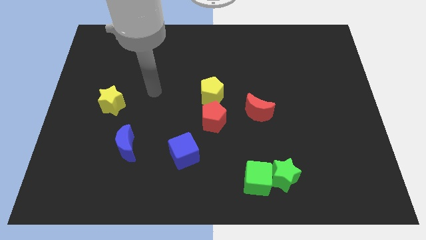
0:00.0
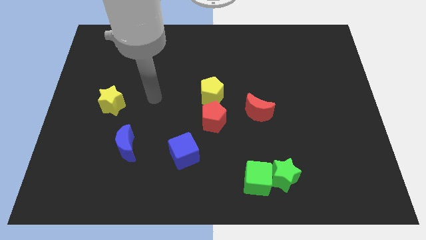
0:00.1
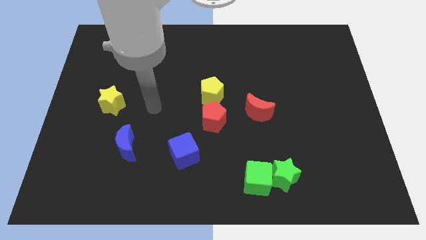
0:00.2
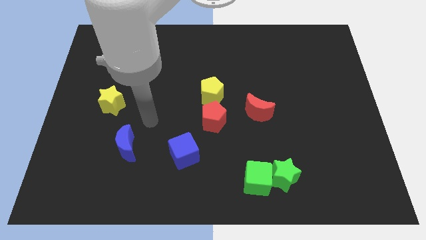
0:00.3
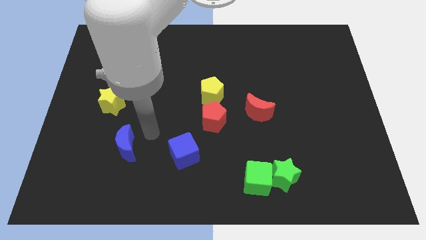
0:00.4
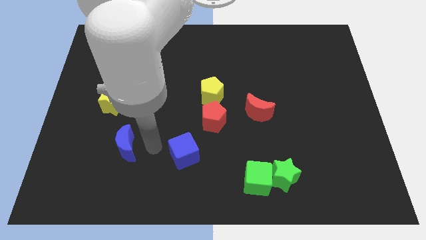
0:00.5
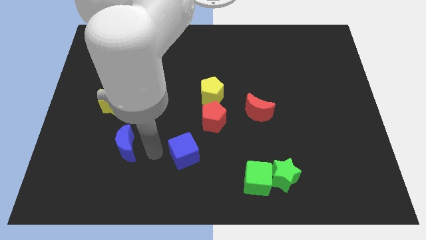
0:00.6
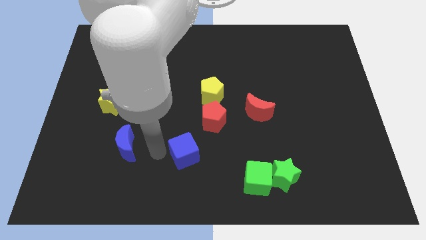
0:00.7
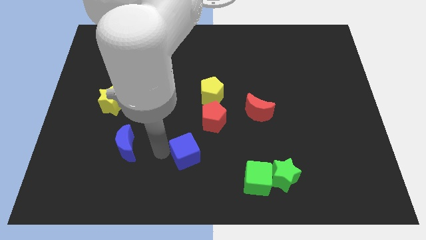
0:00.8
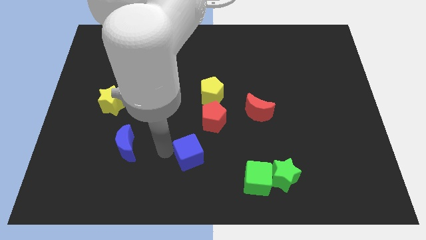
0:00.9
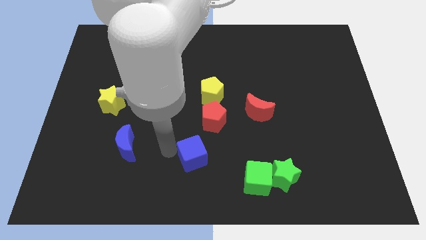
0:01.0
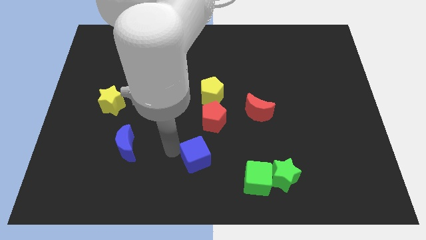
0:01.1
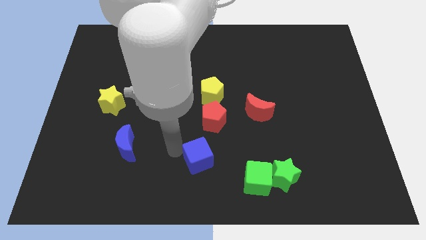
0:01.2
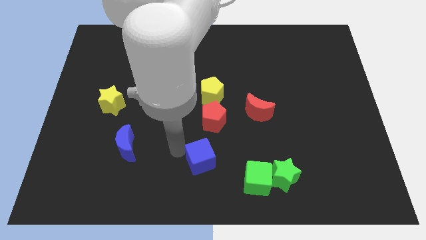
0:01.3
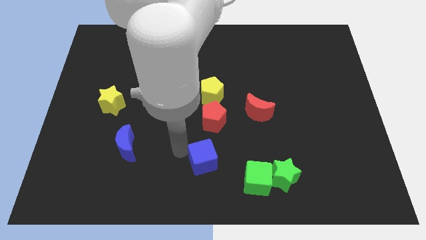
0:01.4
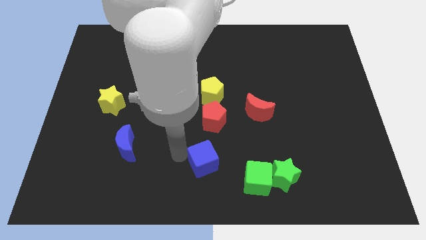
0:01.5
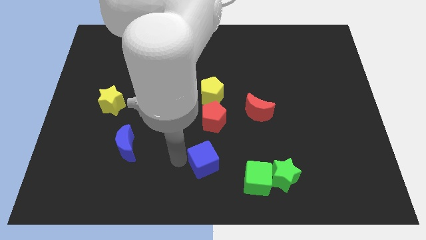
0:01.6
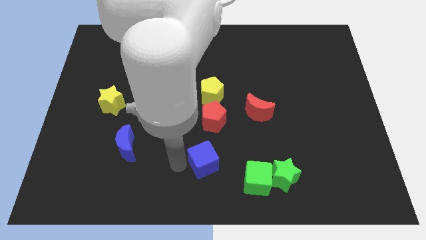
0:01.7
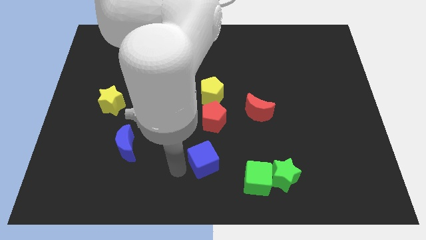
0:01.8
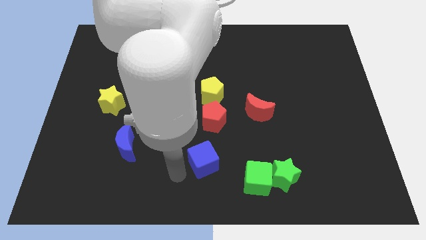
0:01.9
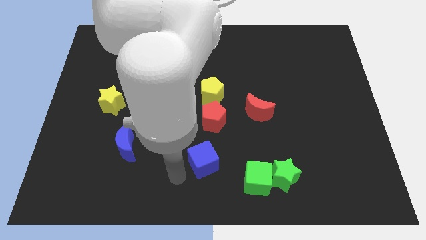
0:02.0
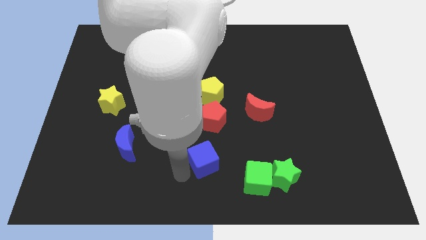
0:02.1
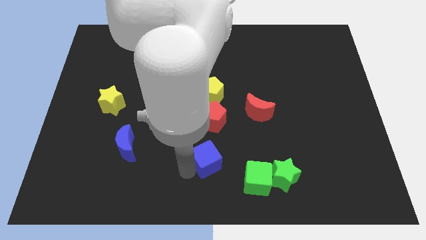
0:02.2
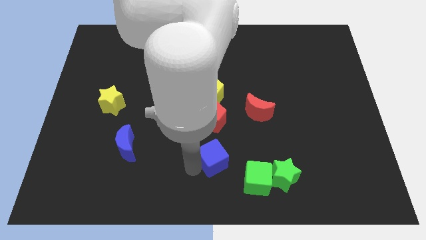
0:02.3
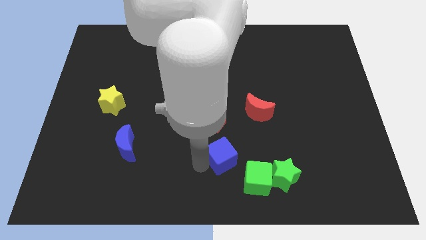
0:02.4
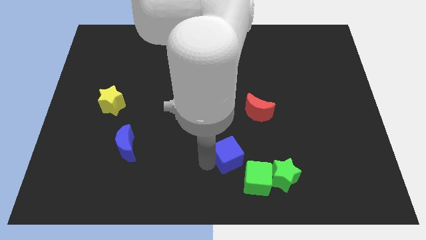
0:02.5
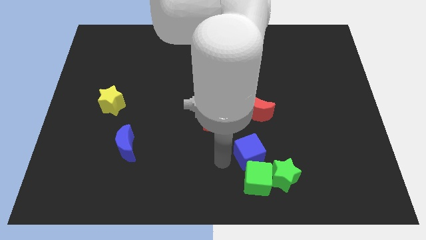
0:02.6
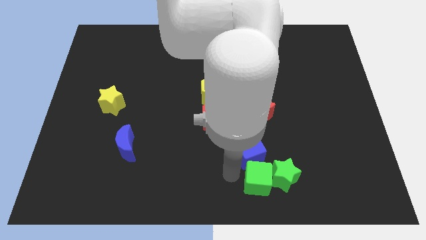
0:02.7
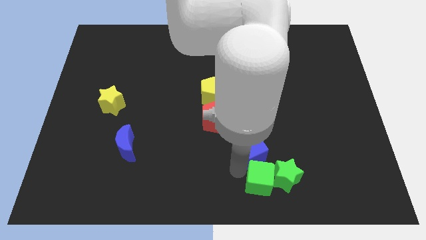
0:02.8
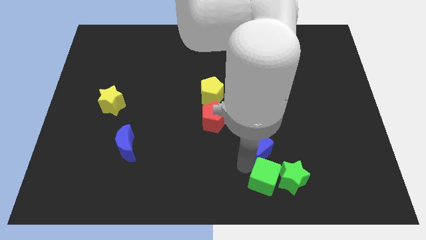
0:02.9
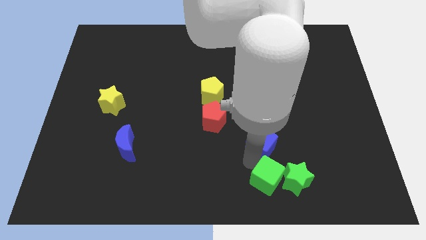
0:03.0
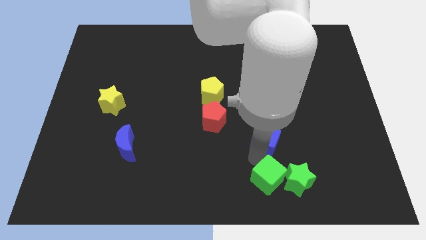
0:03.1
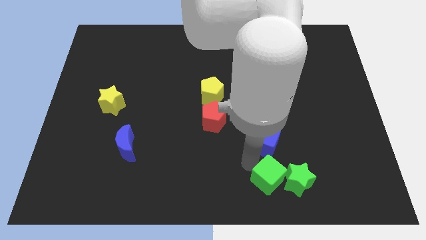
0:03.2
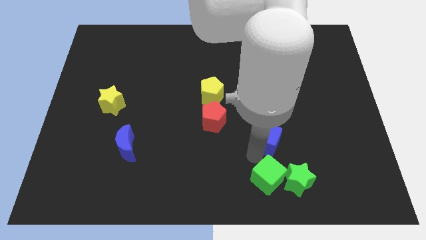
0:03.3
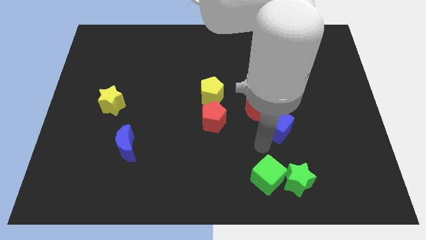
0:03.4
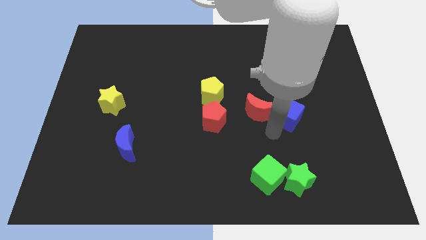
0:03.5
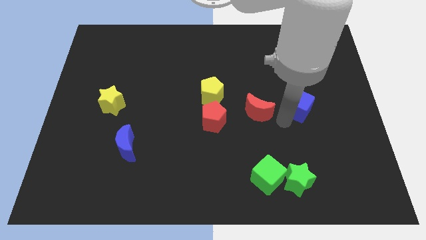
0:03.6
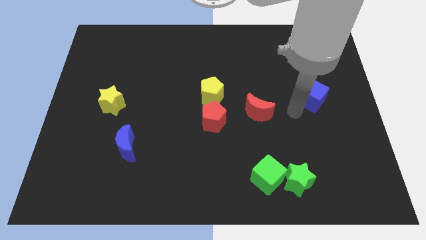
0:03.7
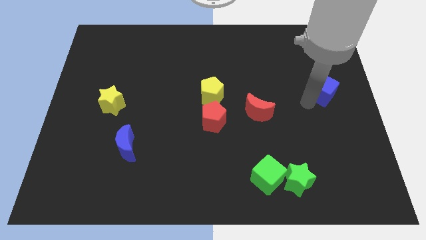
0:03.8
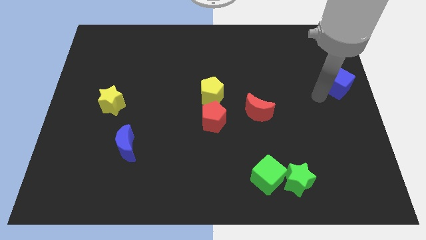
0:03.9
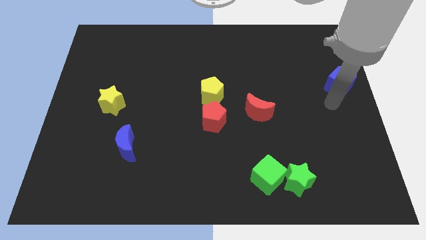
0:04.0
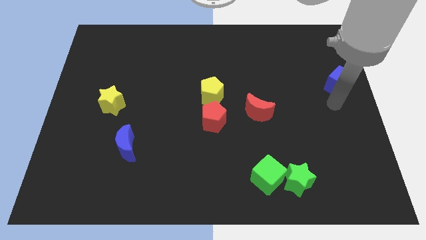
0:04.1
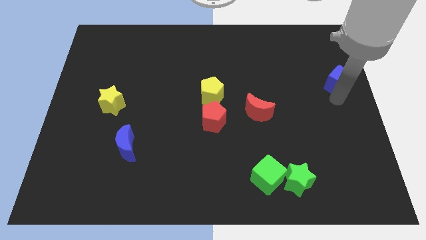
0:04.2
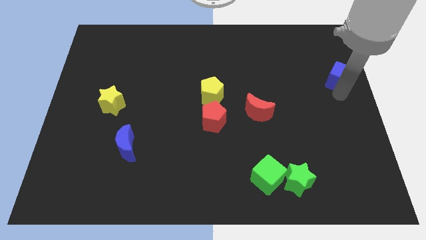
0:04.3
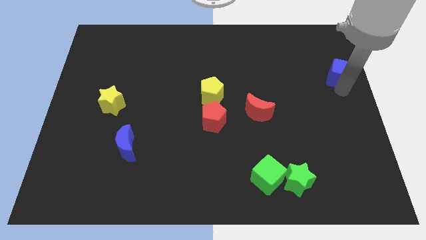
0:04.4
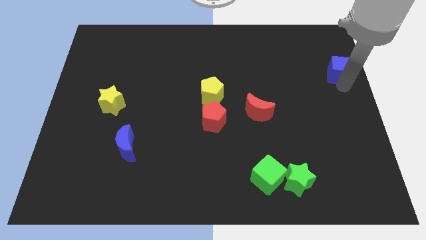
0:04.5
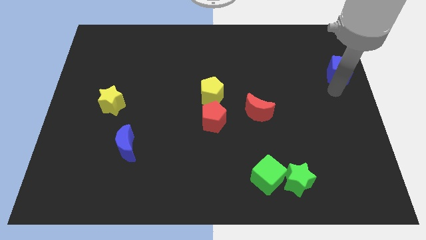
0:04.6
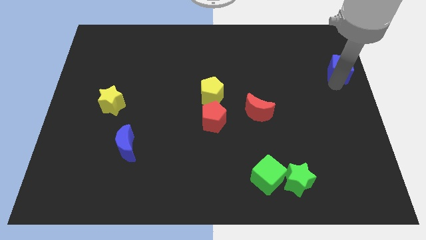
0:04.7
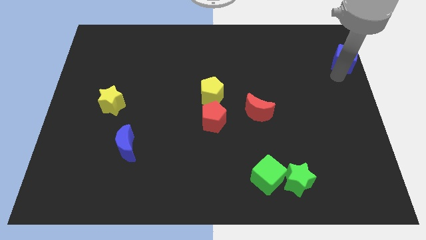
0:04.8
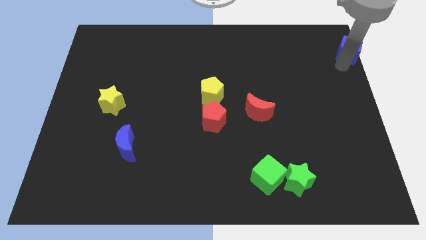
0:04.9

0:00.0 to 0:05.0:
push the blue cube to the top right corner

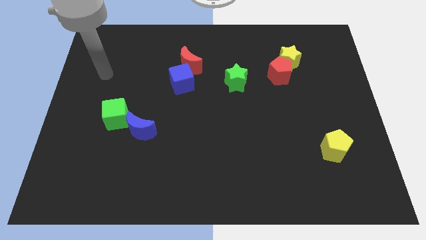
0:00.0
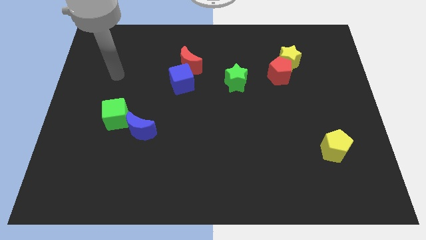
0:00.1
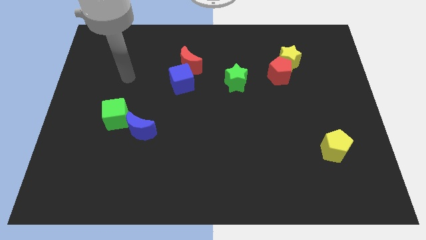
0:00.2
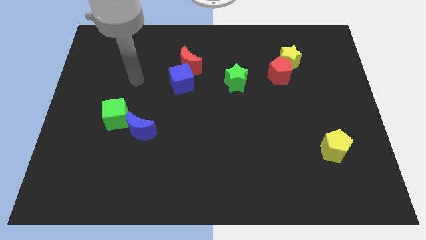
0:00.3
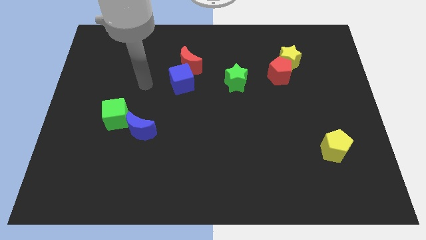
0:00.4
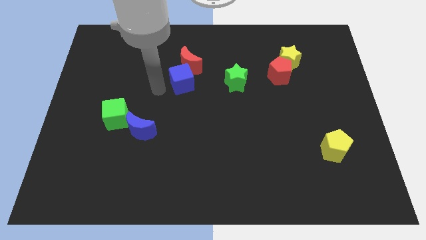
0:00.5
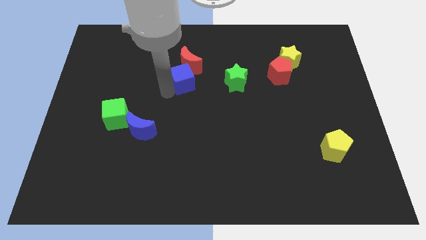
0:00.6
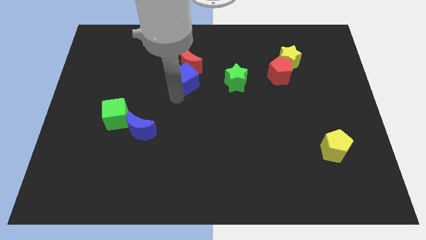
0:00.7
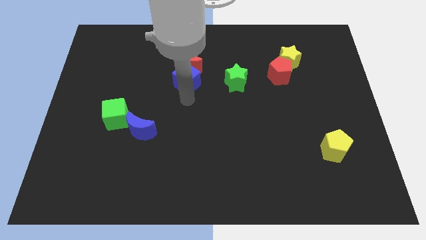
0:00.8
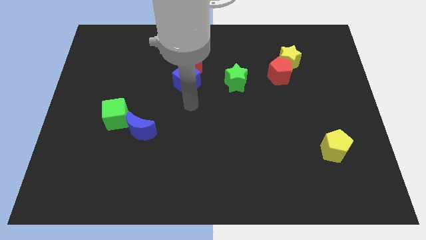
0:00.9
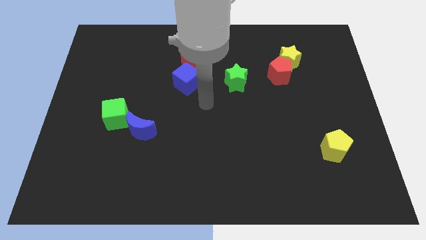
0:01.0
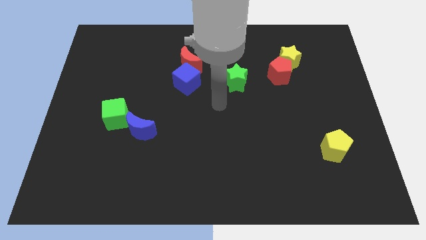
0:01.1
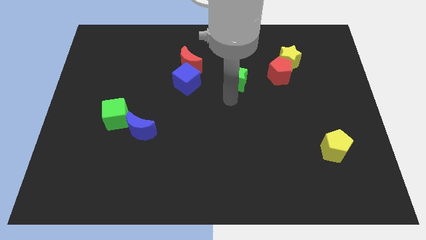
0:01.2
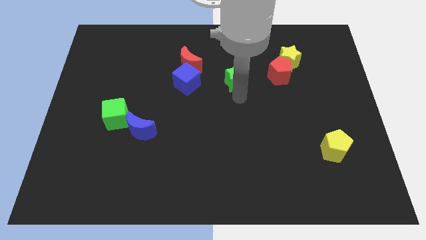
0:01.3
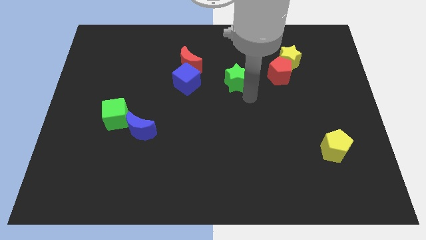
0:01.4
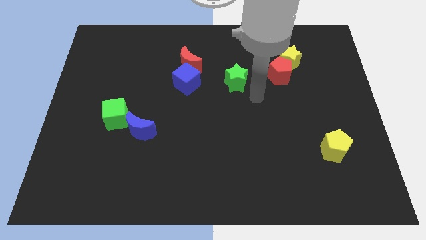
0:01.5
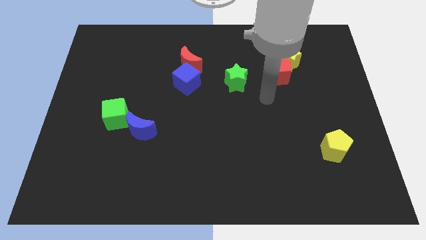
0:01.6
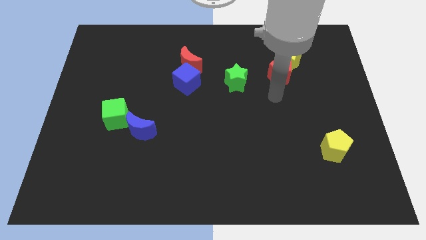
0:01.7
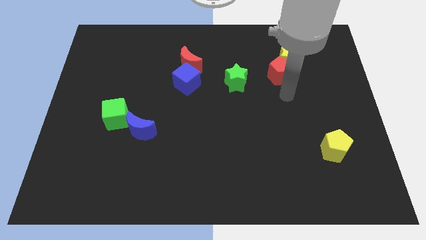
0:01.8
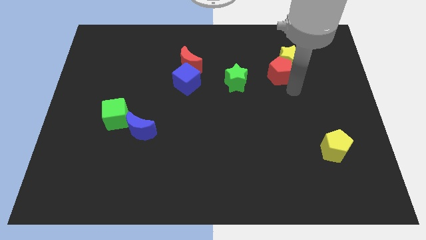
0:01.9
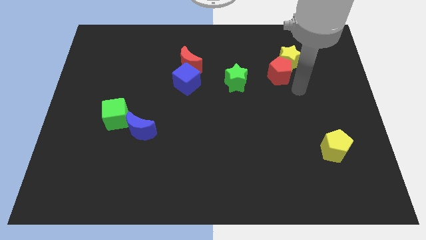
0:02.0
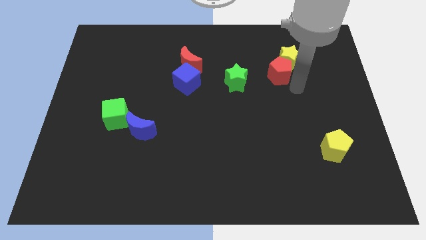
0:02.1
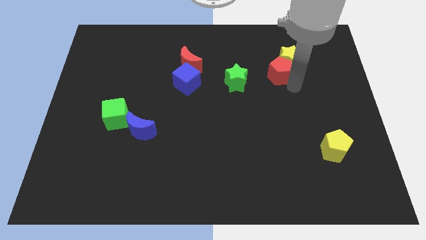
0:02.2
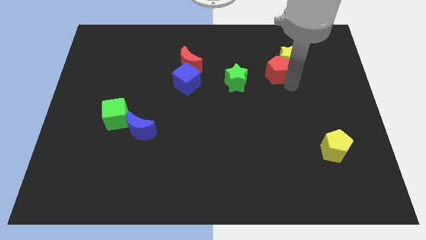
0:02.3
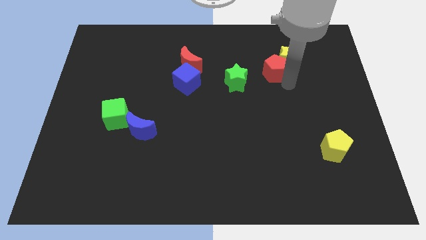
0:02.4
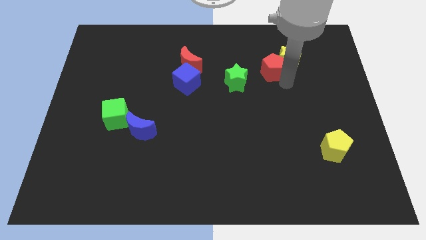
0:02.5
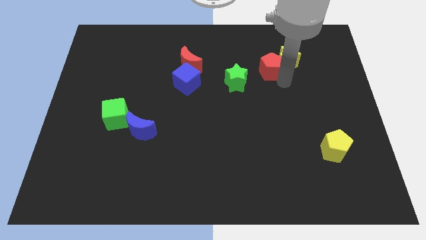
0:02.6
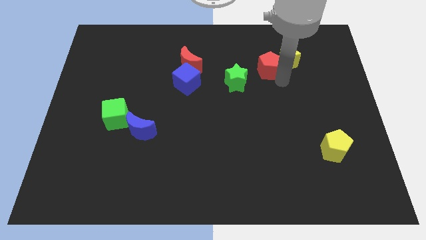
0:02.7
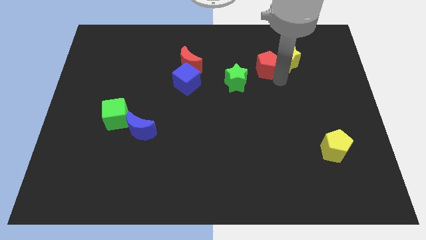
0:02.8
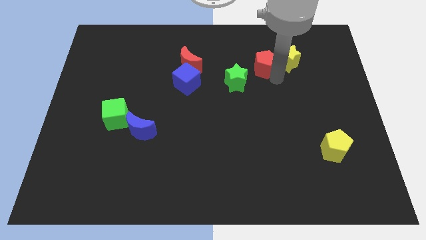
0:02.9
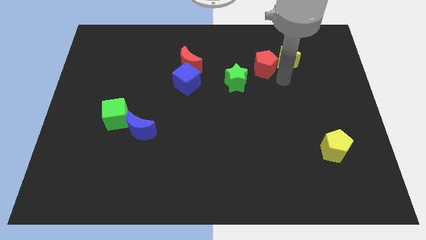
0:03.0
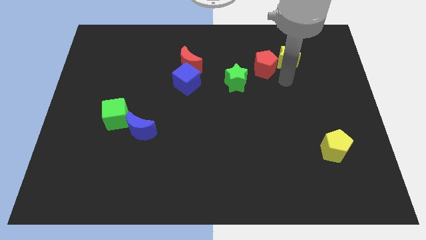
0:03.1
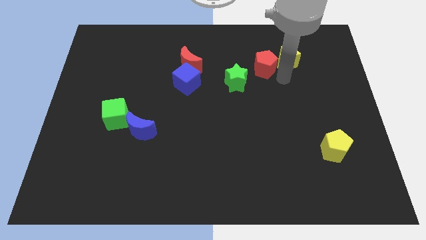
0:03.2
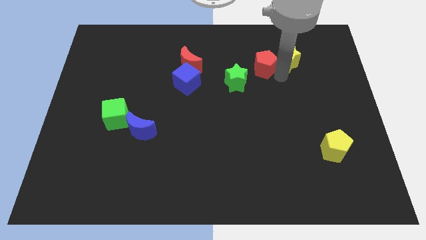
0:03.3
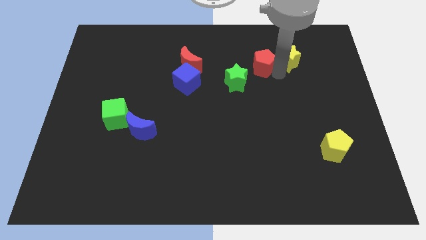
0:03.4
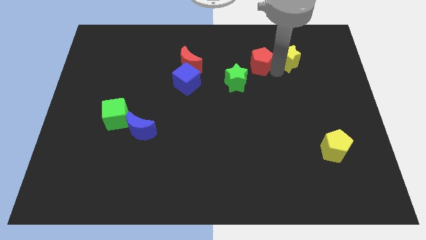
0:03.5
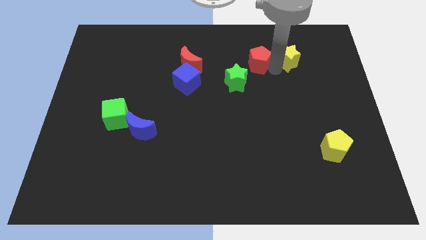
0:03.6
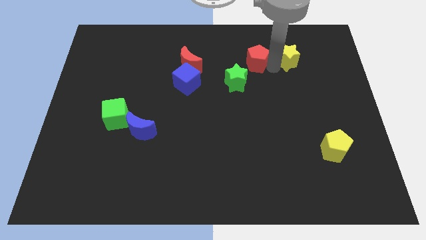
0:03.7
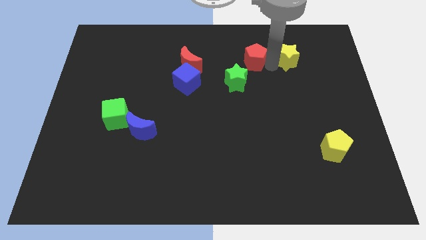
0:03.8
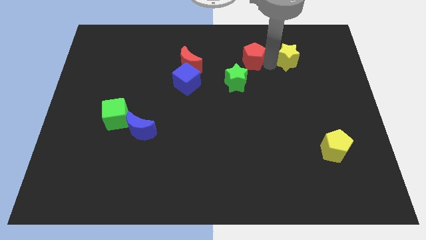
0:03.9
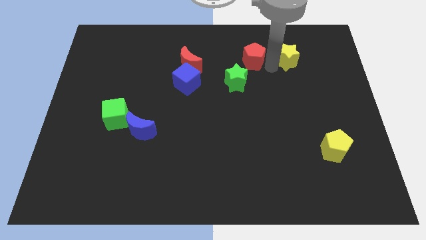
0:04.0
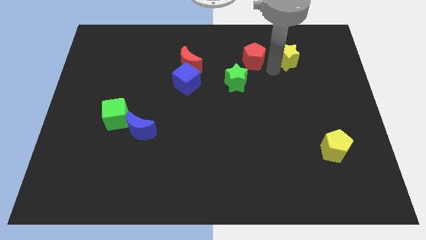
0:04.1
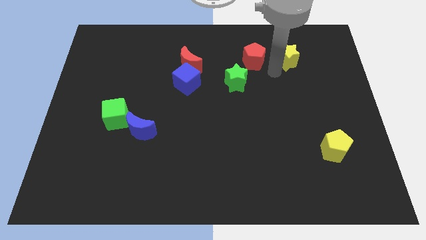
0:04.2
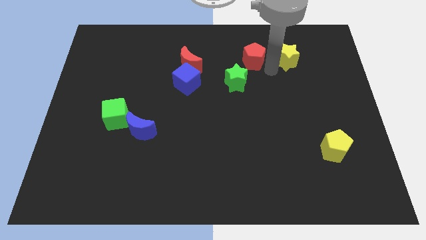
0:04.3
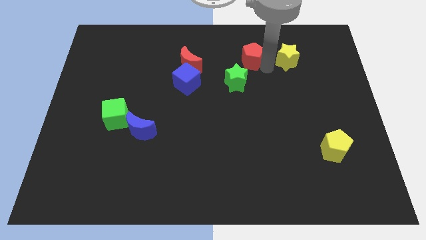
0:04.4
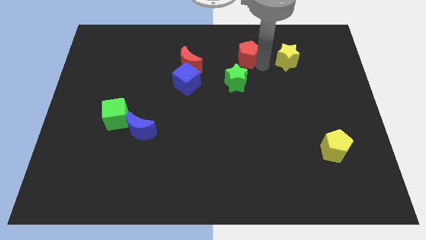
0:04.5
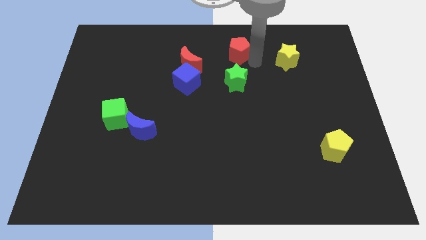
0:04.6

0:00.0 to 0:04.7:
put the red pentagon to the towards your base
